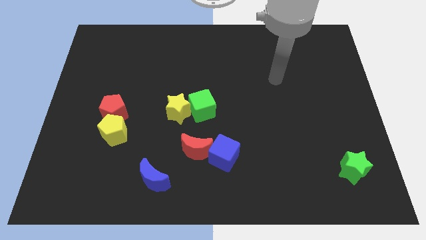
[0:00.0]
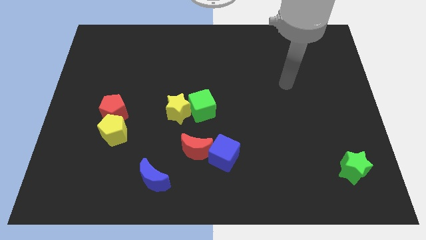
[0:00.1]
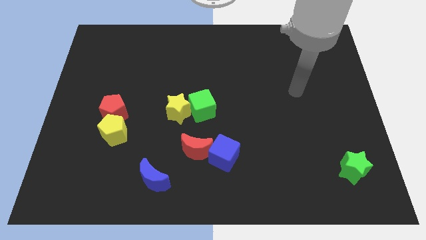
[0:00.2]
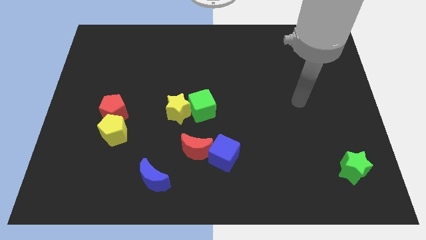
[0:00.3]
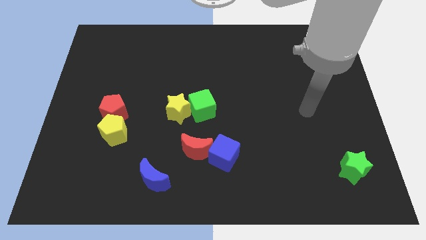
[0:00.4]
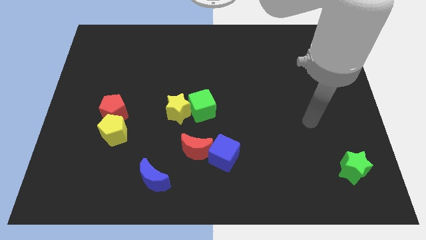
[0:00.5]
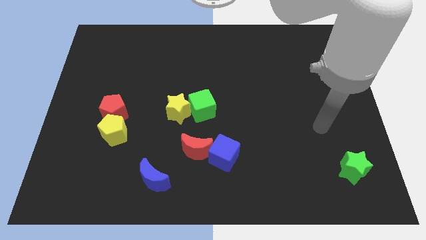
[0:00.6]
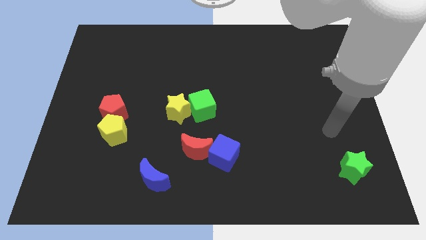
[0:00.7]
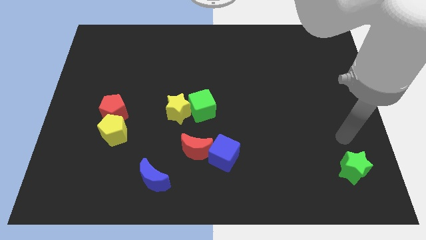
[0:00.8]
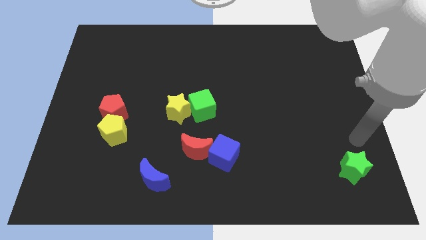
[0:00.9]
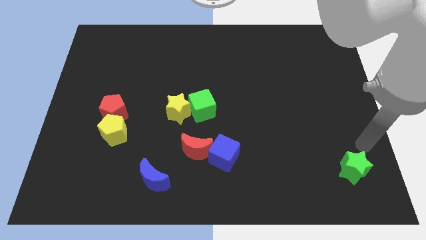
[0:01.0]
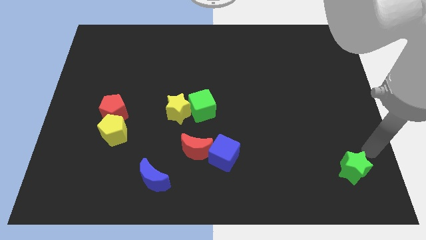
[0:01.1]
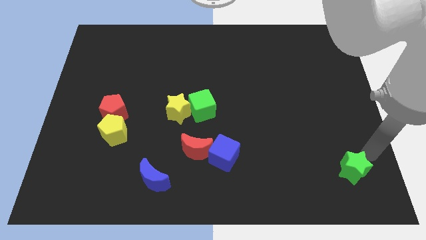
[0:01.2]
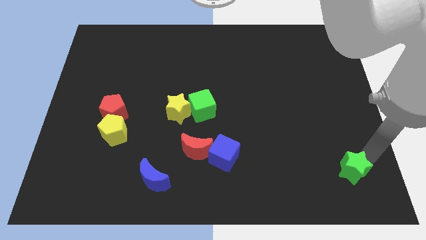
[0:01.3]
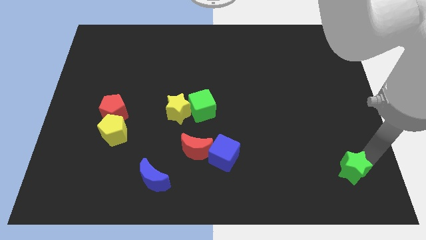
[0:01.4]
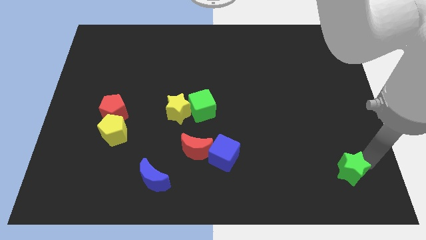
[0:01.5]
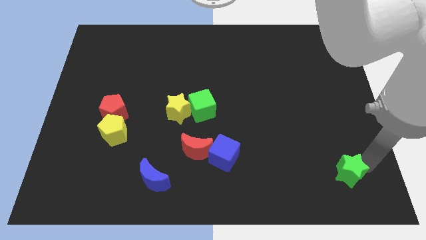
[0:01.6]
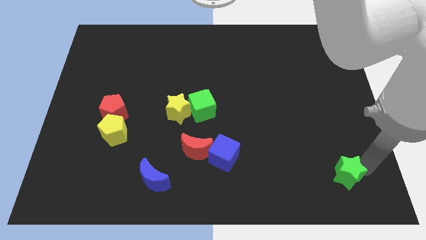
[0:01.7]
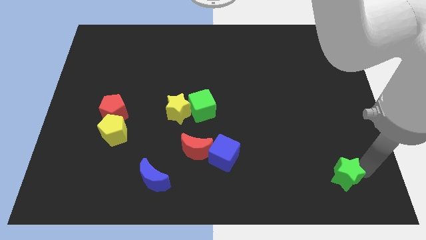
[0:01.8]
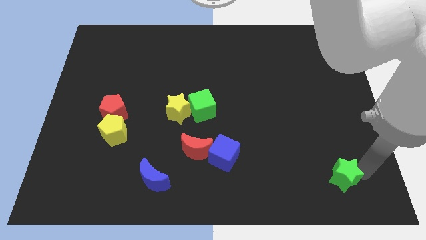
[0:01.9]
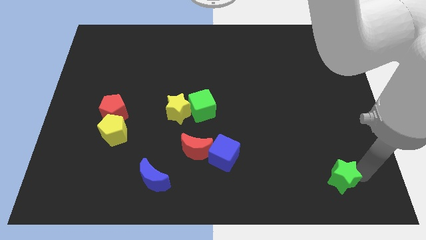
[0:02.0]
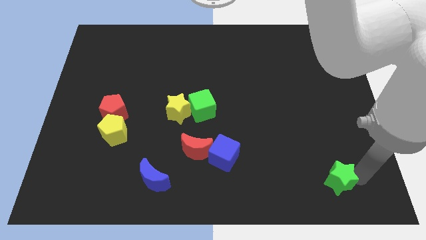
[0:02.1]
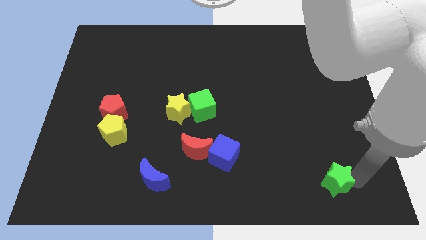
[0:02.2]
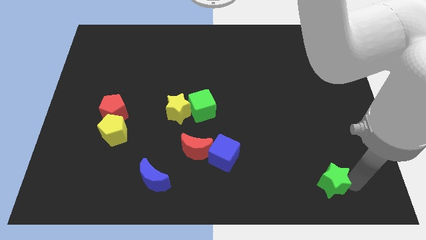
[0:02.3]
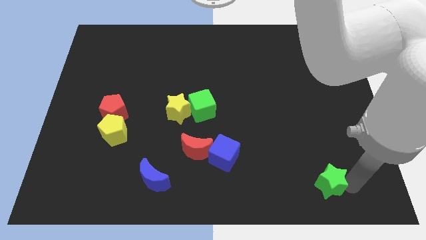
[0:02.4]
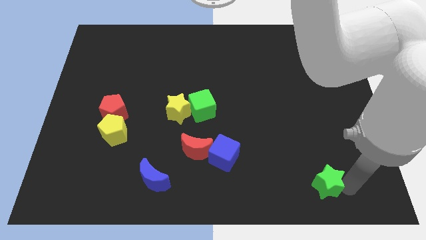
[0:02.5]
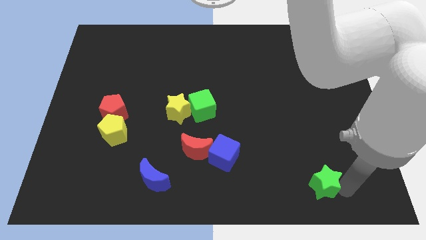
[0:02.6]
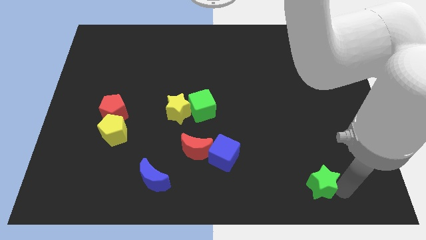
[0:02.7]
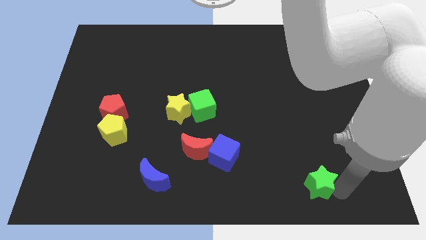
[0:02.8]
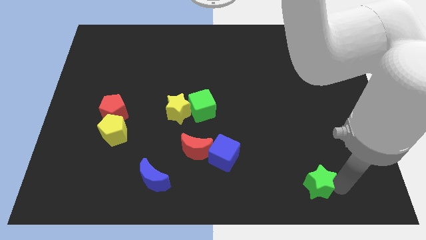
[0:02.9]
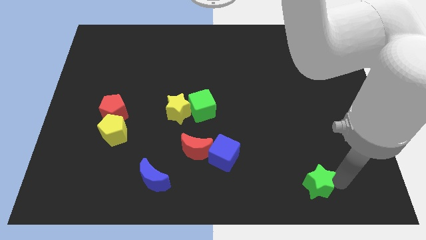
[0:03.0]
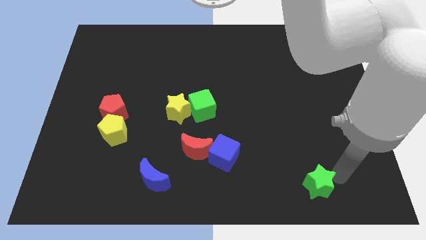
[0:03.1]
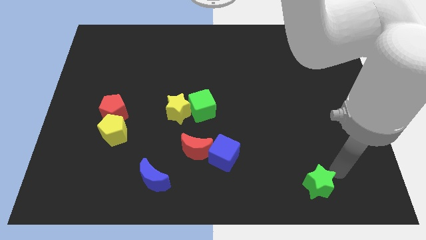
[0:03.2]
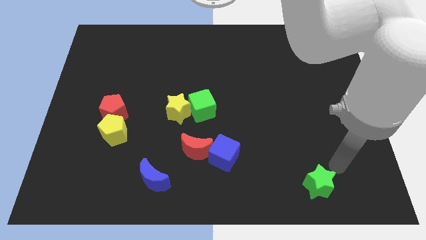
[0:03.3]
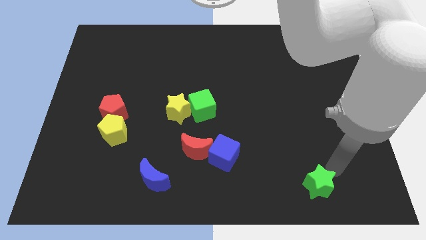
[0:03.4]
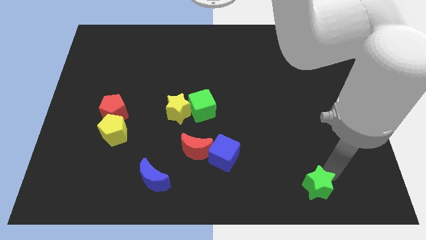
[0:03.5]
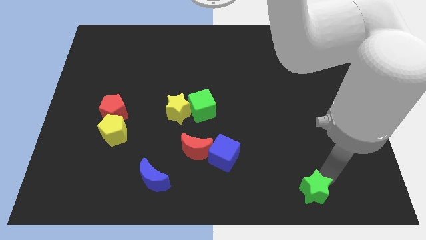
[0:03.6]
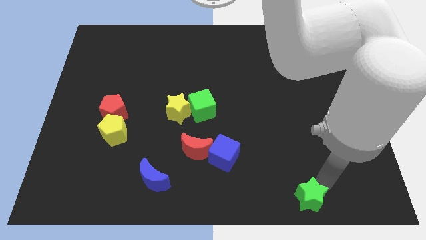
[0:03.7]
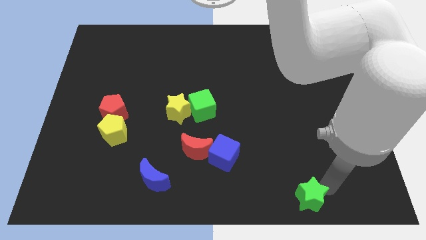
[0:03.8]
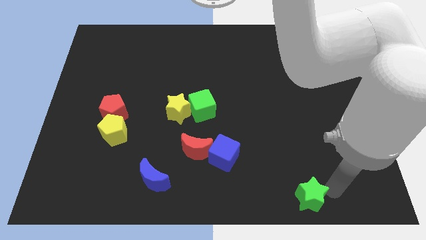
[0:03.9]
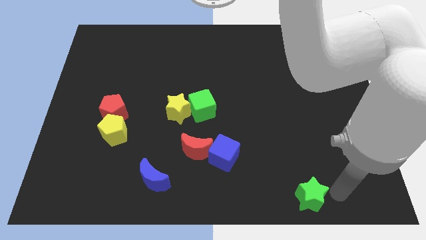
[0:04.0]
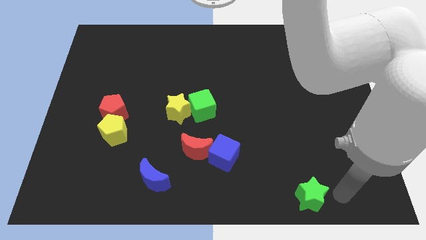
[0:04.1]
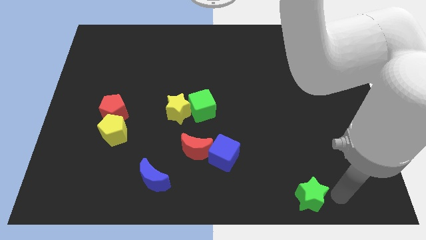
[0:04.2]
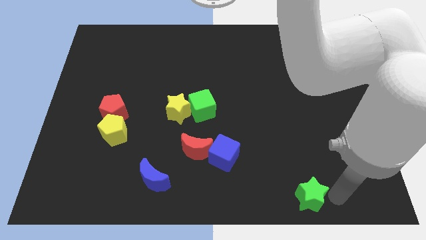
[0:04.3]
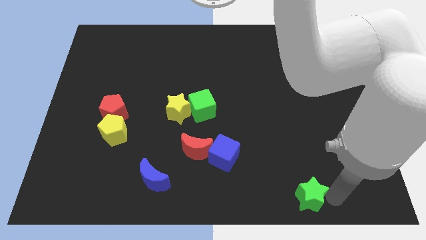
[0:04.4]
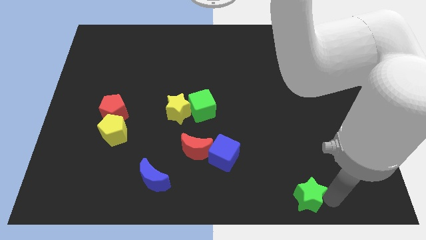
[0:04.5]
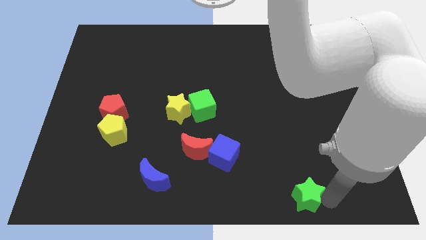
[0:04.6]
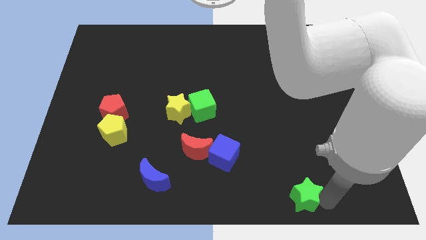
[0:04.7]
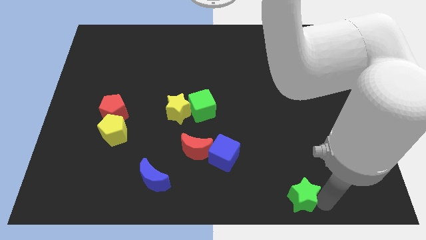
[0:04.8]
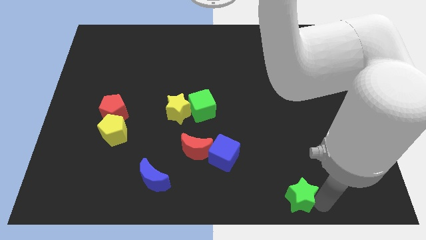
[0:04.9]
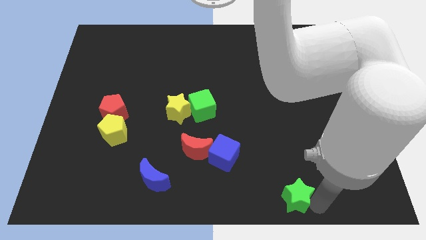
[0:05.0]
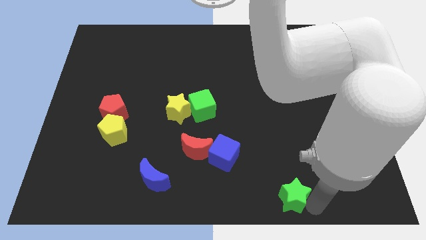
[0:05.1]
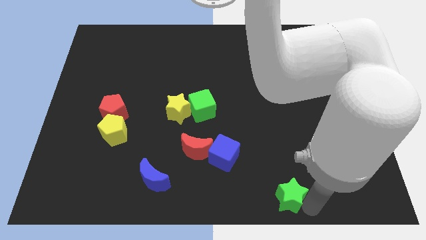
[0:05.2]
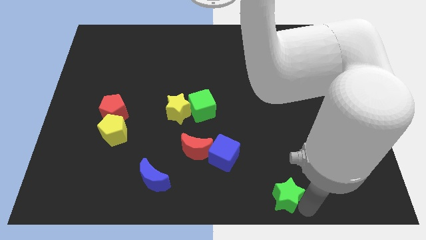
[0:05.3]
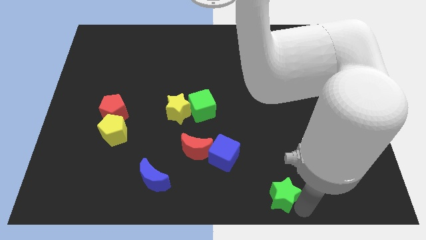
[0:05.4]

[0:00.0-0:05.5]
slide the green star to the bottom side

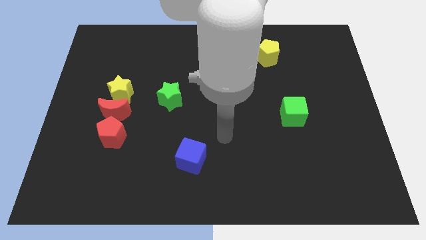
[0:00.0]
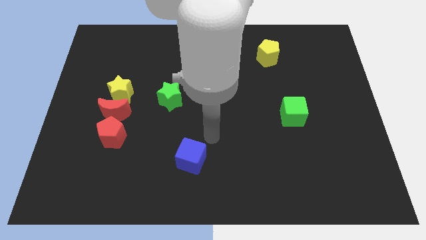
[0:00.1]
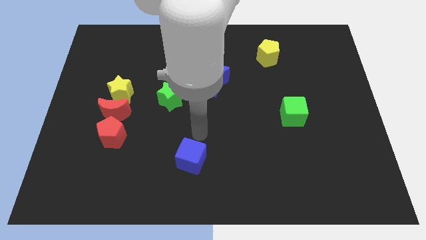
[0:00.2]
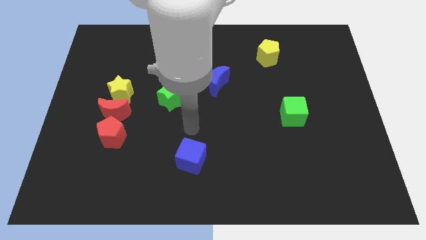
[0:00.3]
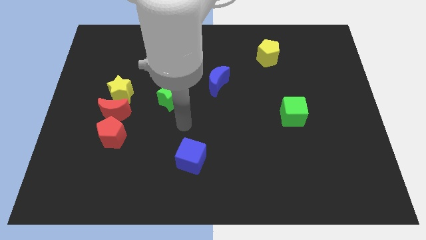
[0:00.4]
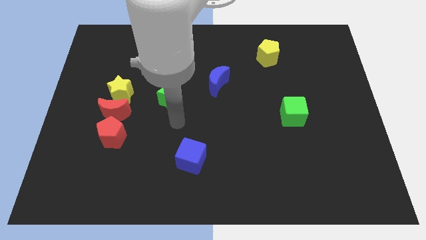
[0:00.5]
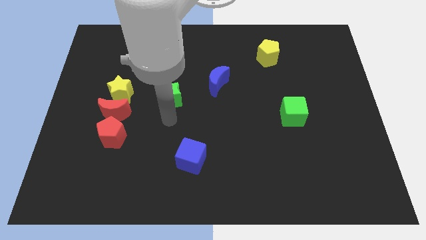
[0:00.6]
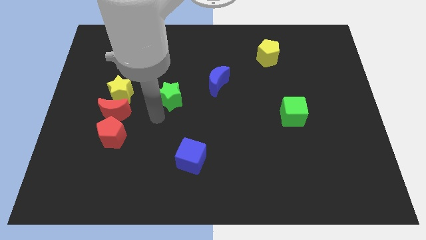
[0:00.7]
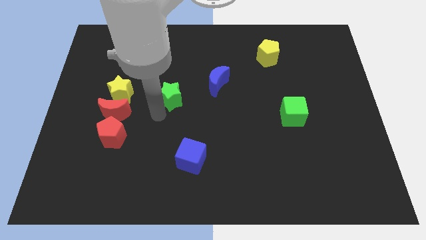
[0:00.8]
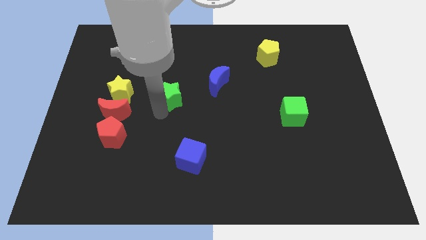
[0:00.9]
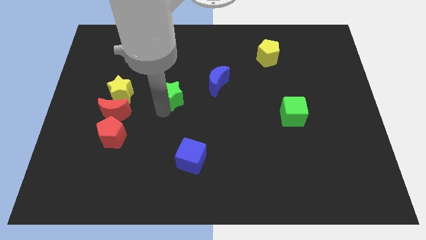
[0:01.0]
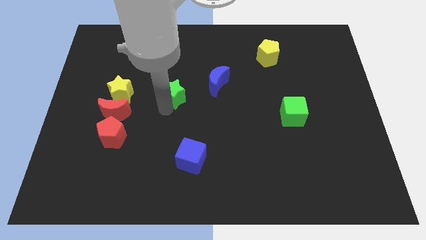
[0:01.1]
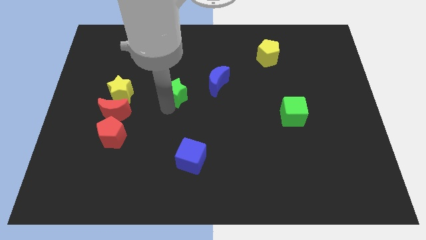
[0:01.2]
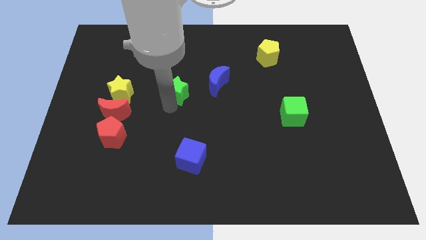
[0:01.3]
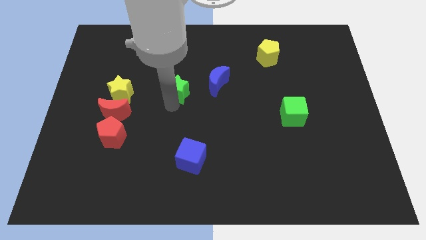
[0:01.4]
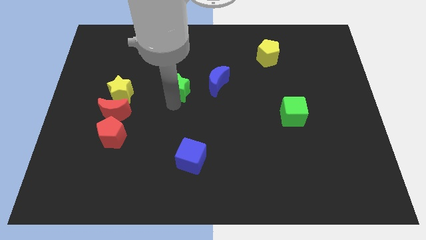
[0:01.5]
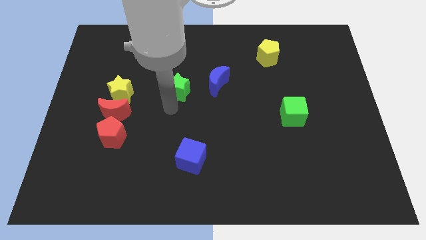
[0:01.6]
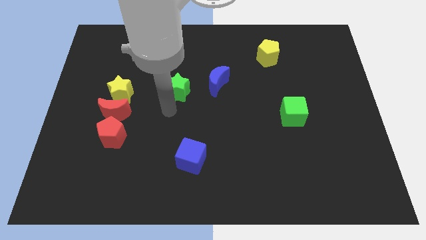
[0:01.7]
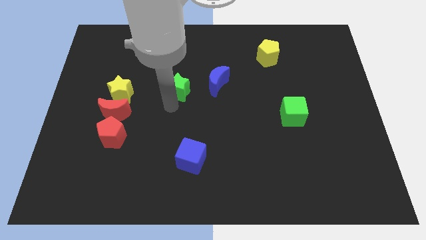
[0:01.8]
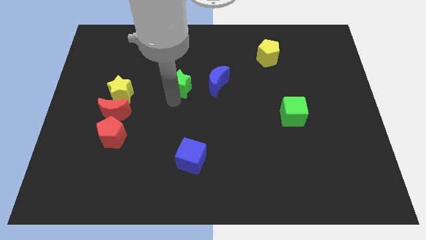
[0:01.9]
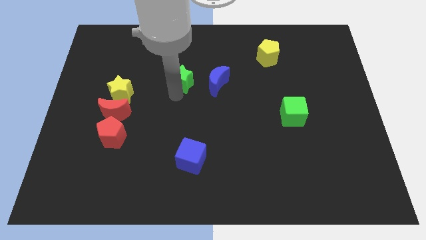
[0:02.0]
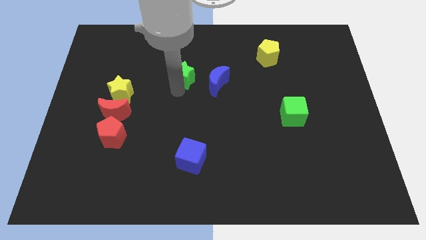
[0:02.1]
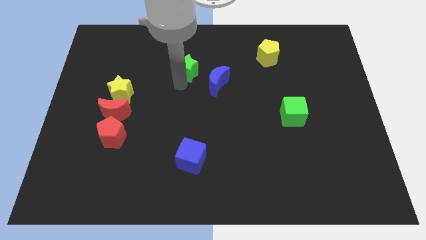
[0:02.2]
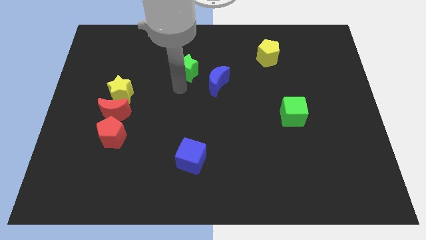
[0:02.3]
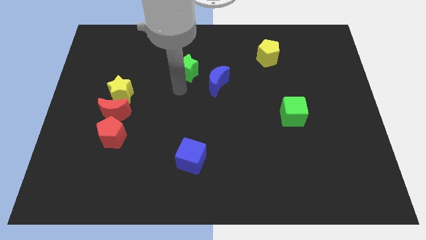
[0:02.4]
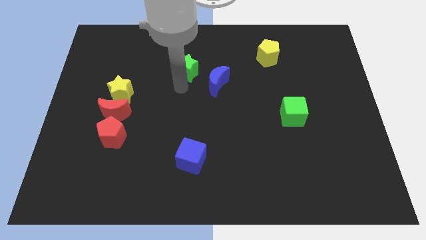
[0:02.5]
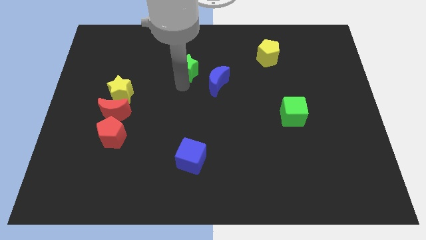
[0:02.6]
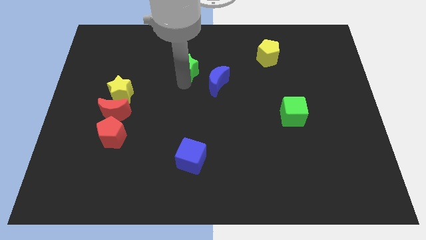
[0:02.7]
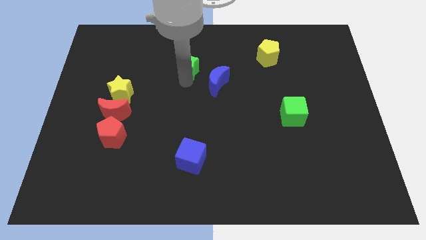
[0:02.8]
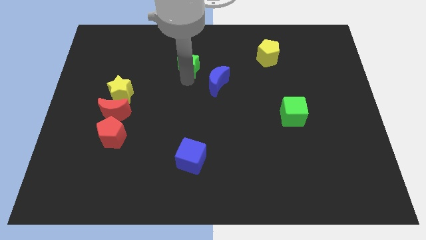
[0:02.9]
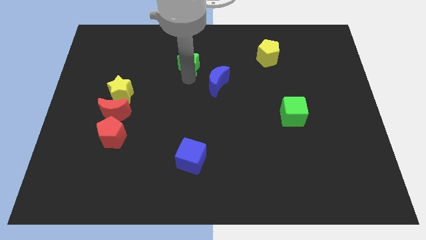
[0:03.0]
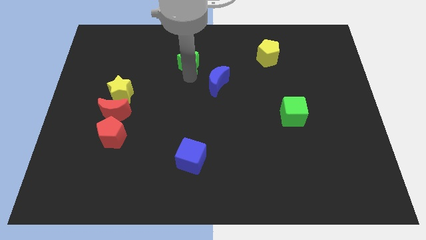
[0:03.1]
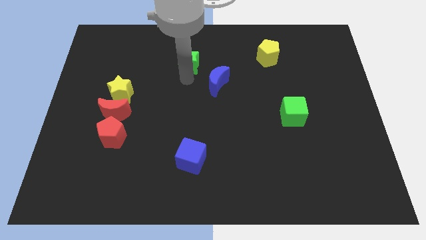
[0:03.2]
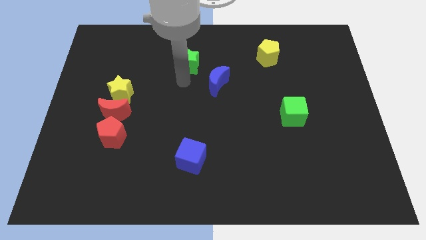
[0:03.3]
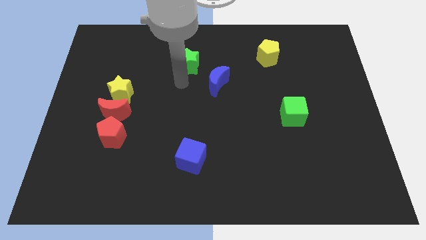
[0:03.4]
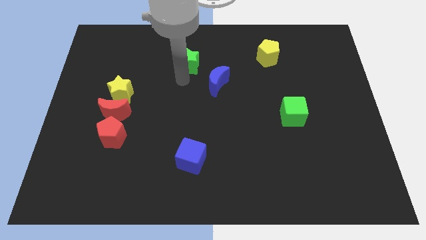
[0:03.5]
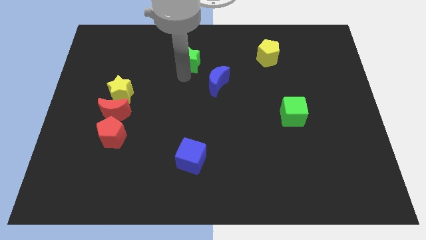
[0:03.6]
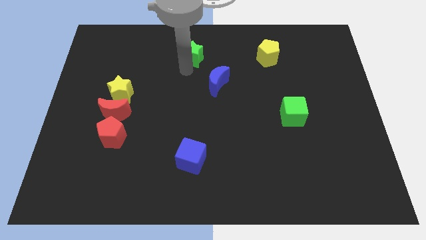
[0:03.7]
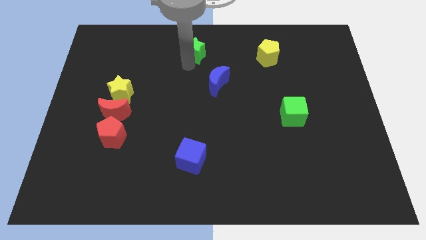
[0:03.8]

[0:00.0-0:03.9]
put the green star to the towards your base
